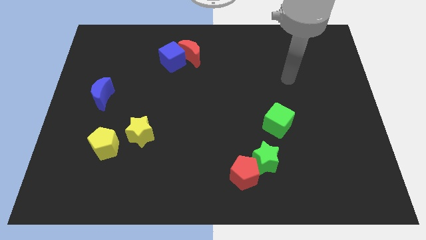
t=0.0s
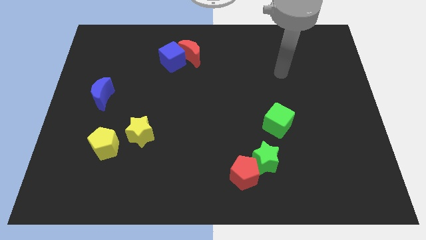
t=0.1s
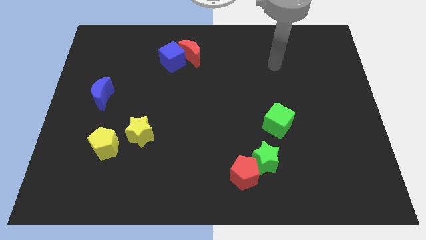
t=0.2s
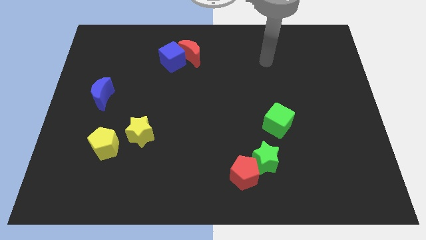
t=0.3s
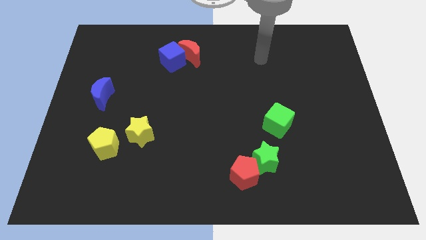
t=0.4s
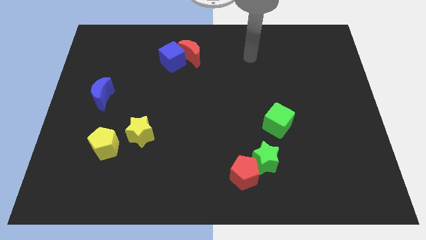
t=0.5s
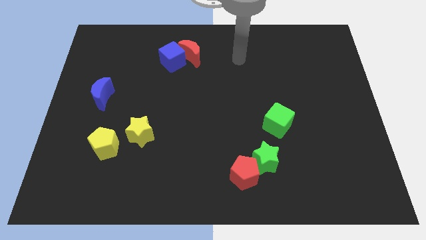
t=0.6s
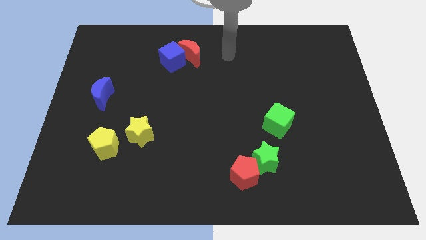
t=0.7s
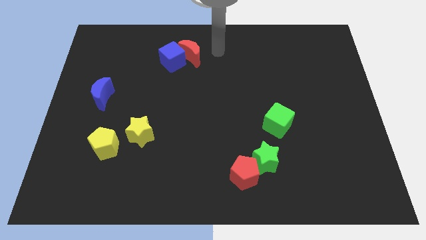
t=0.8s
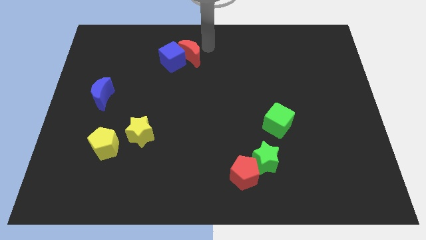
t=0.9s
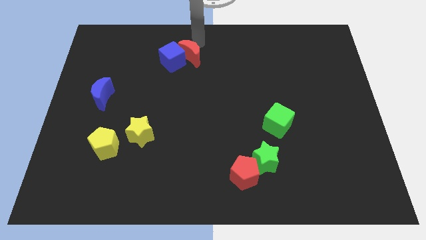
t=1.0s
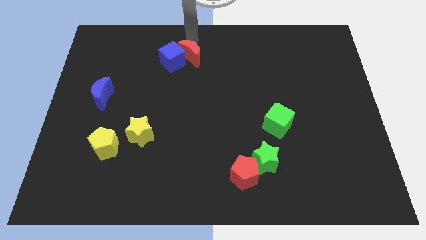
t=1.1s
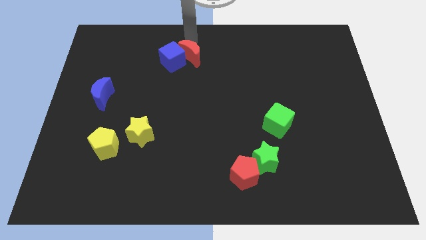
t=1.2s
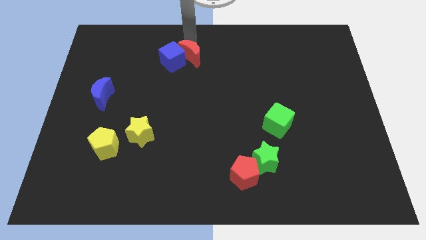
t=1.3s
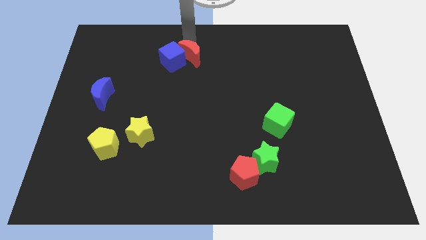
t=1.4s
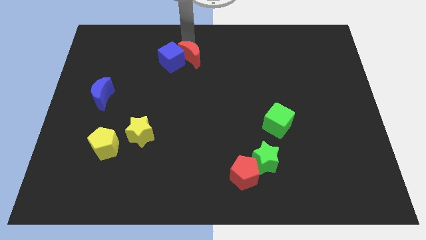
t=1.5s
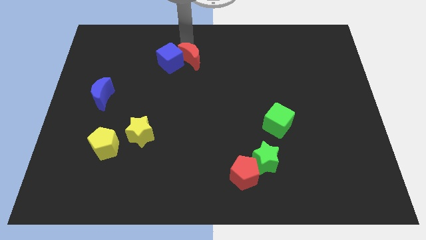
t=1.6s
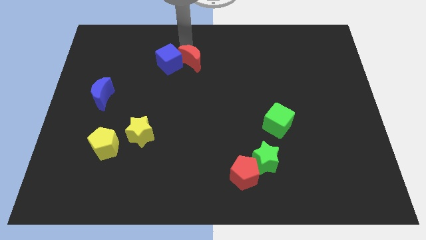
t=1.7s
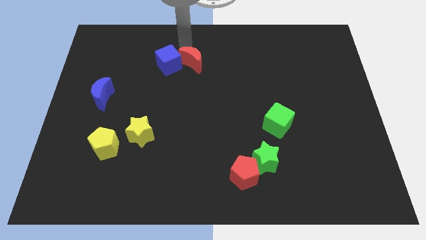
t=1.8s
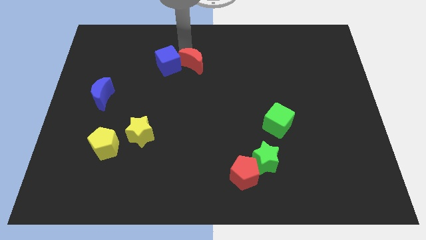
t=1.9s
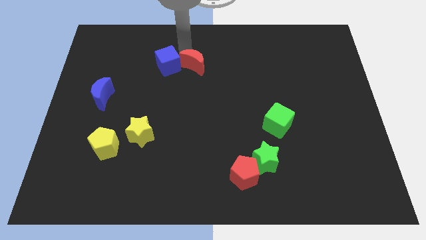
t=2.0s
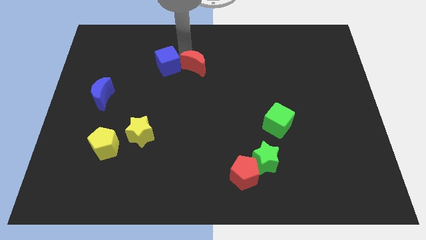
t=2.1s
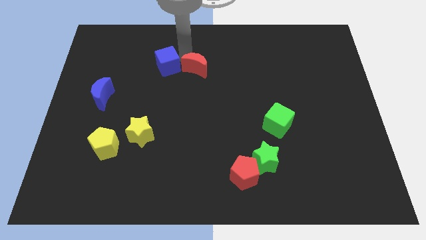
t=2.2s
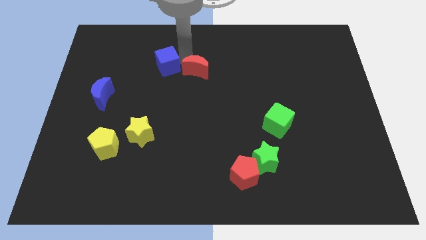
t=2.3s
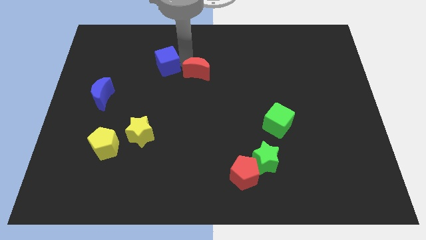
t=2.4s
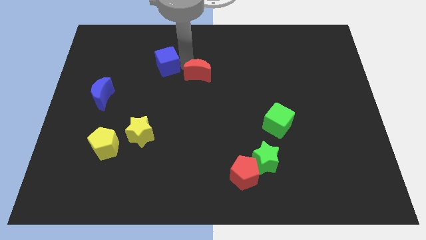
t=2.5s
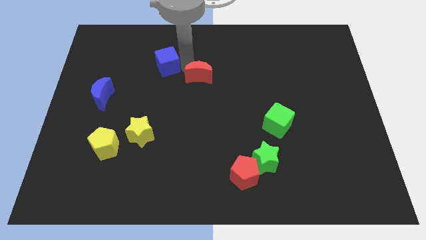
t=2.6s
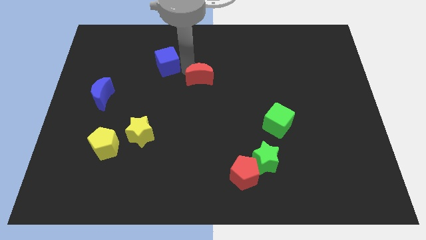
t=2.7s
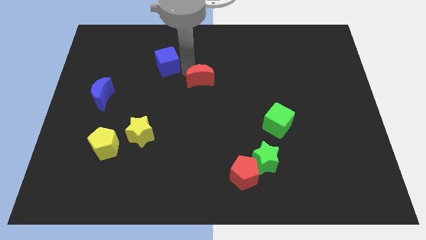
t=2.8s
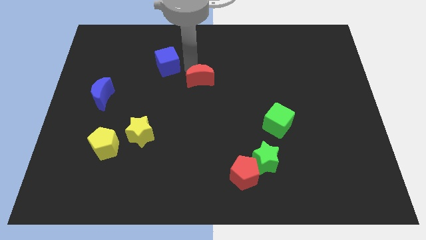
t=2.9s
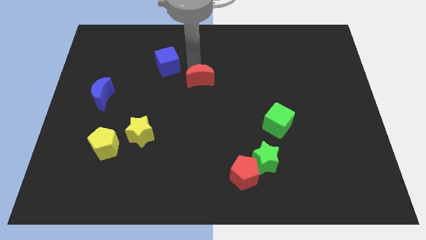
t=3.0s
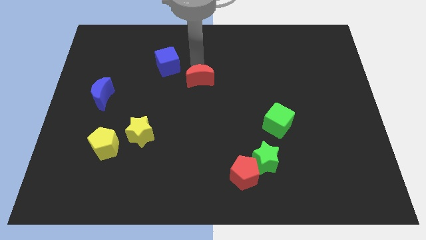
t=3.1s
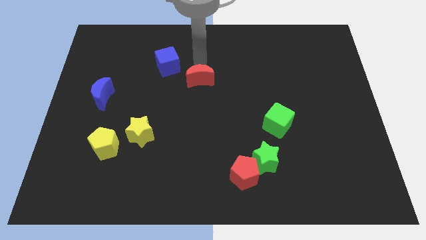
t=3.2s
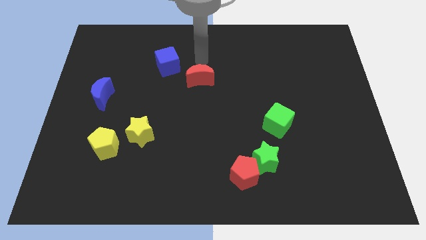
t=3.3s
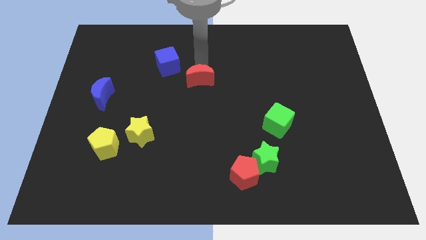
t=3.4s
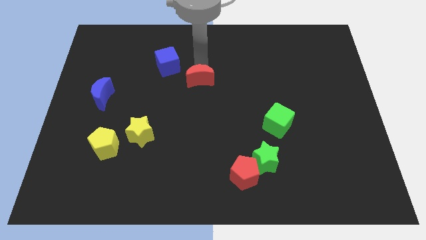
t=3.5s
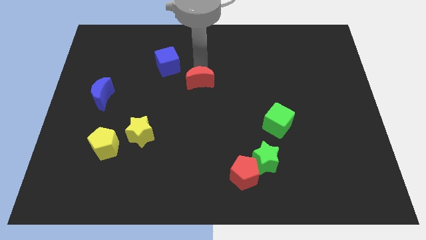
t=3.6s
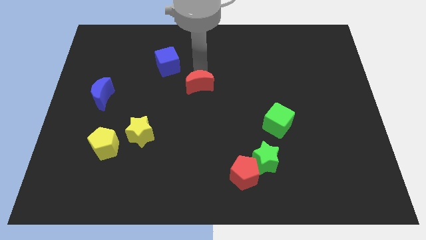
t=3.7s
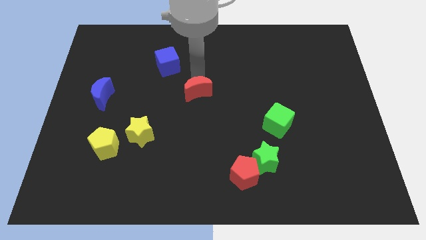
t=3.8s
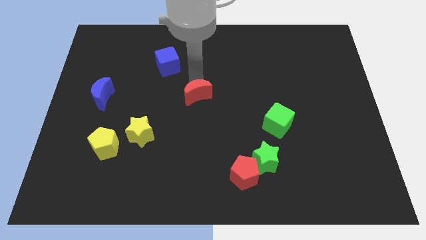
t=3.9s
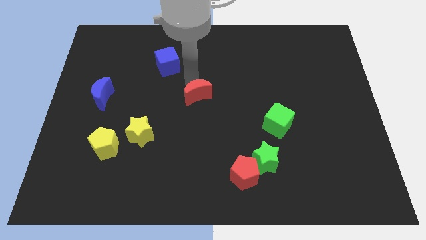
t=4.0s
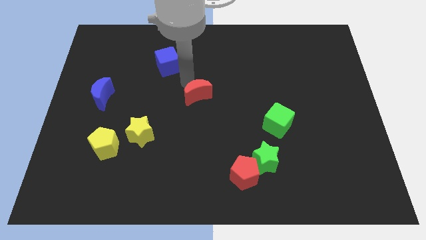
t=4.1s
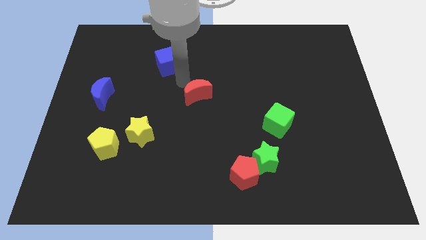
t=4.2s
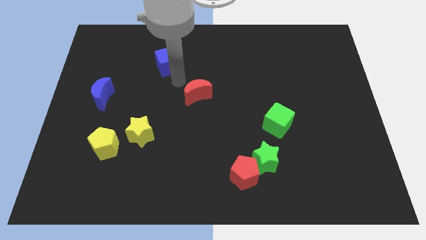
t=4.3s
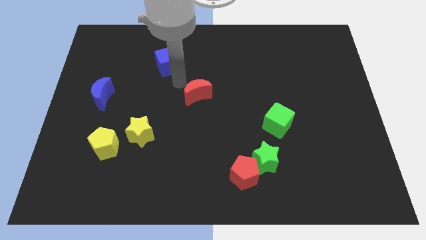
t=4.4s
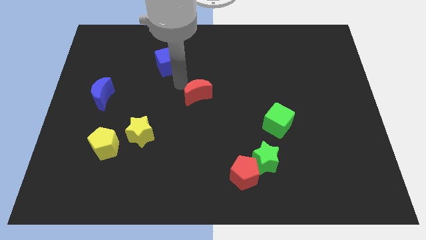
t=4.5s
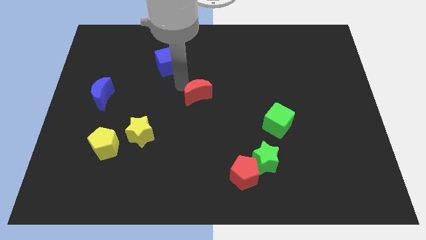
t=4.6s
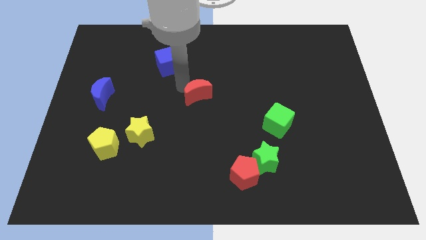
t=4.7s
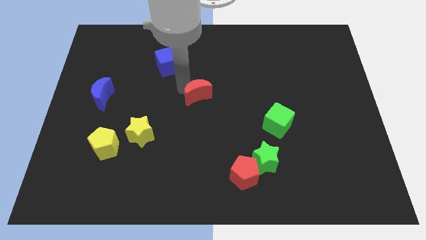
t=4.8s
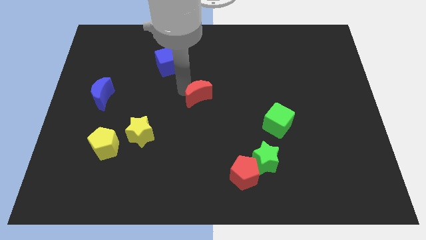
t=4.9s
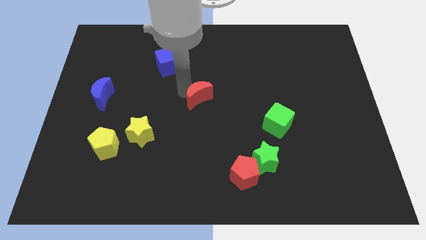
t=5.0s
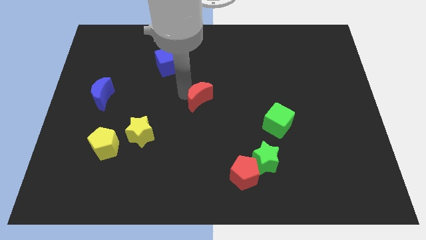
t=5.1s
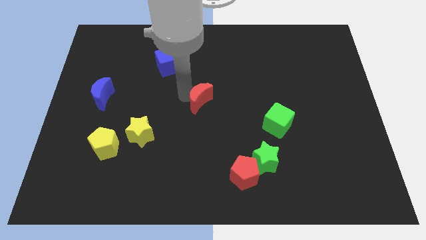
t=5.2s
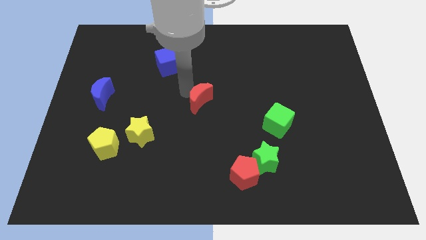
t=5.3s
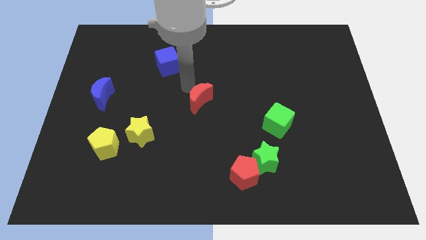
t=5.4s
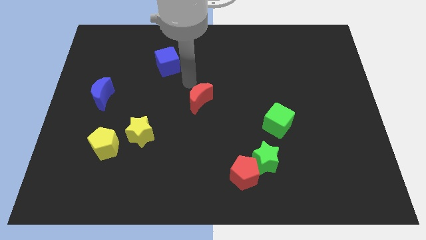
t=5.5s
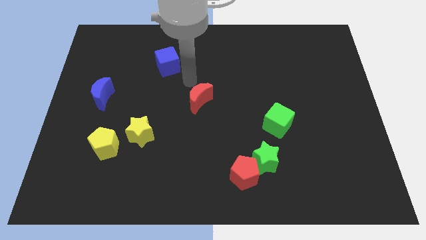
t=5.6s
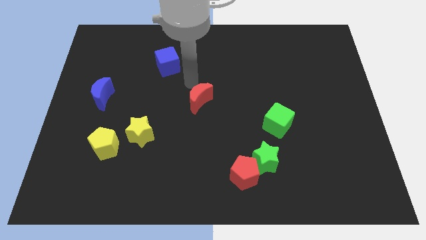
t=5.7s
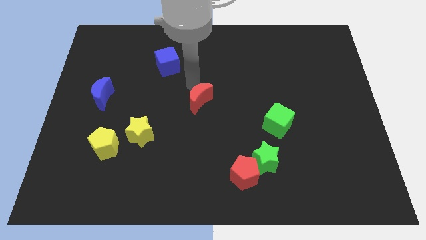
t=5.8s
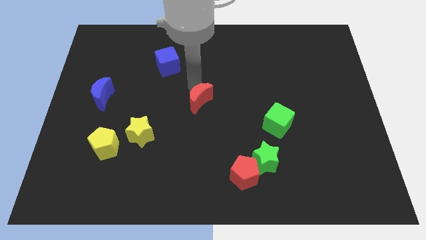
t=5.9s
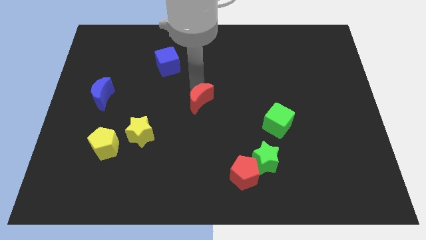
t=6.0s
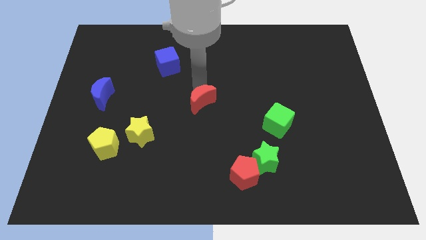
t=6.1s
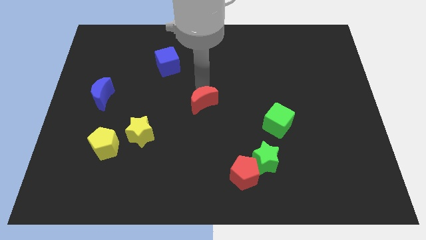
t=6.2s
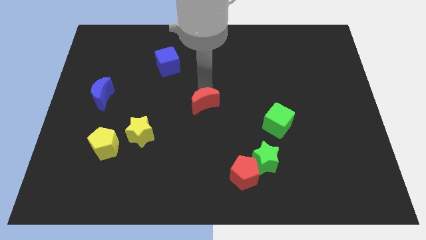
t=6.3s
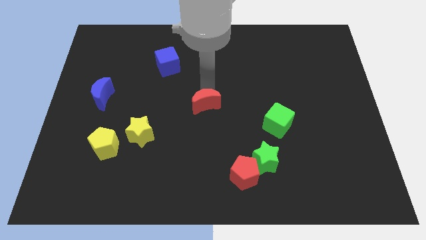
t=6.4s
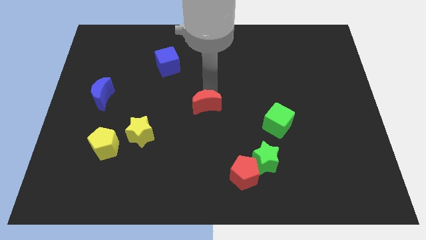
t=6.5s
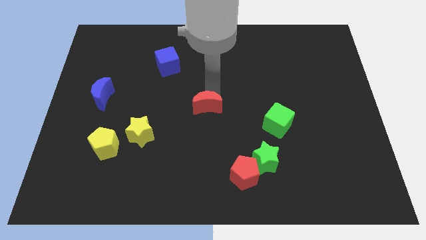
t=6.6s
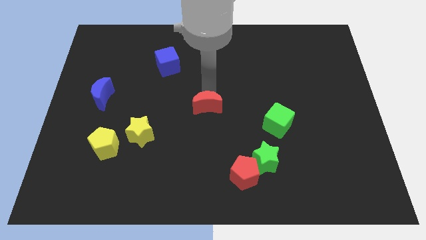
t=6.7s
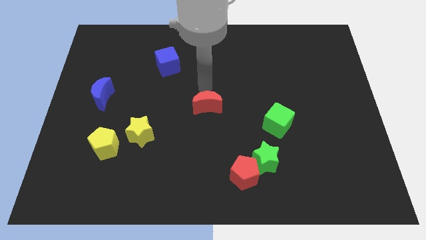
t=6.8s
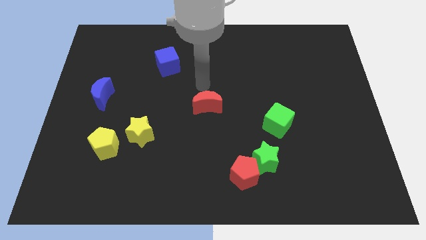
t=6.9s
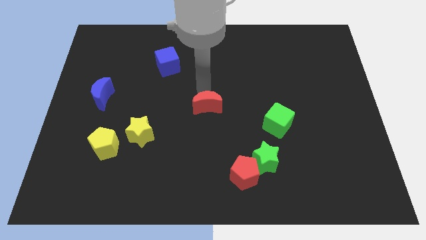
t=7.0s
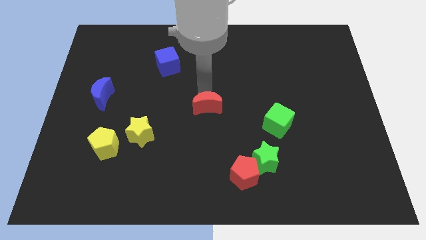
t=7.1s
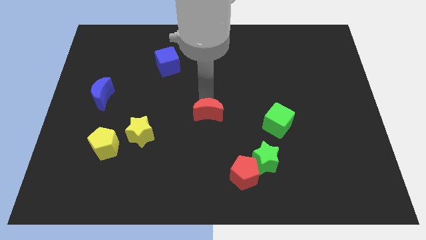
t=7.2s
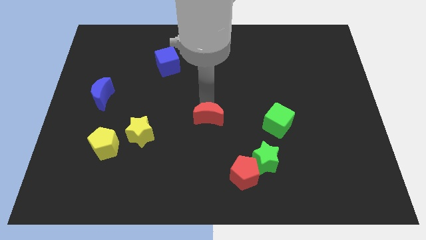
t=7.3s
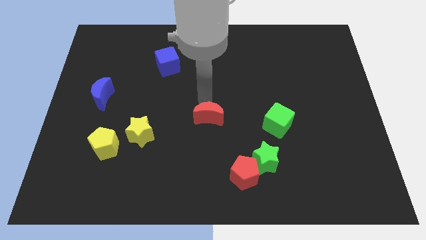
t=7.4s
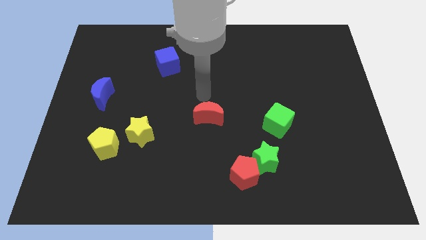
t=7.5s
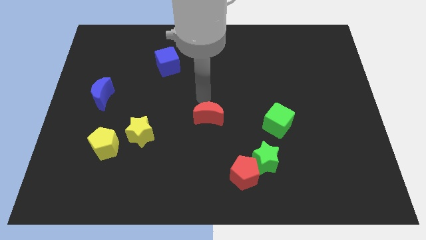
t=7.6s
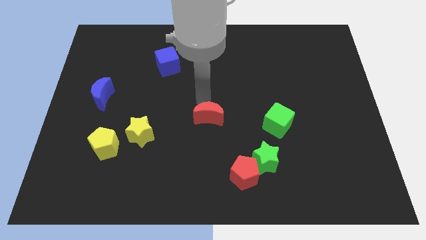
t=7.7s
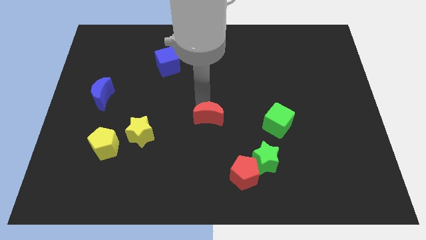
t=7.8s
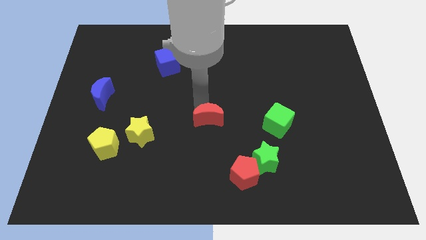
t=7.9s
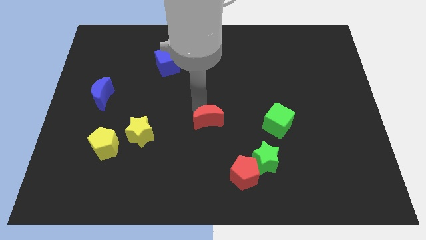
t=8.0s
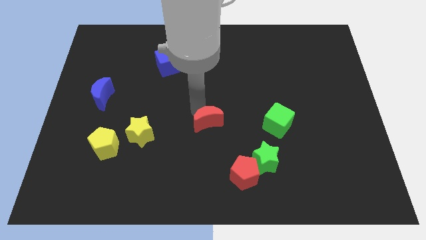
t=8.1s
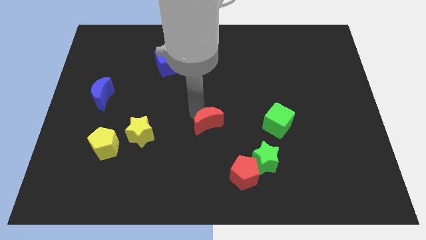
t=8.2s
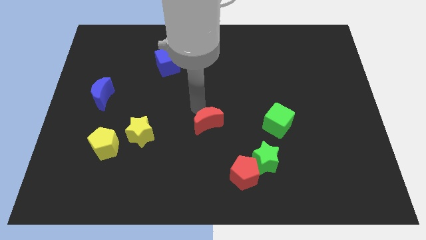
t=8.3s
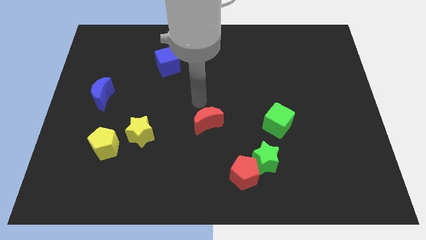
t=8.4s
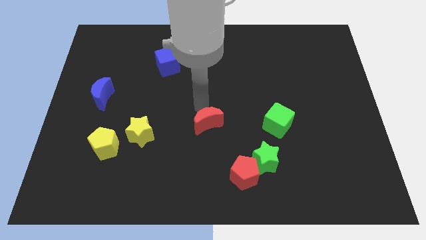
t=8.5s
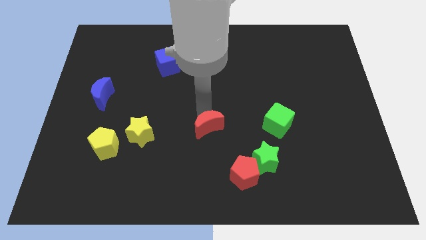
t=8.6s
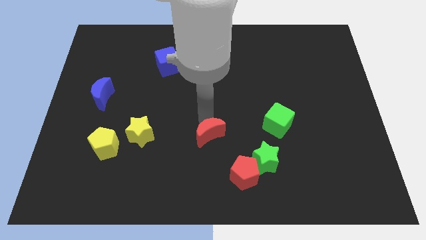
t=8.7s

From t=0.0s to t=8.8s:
push the red moon to the top left side of the red pentagon
